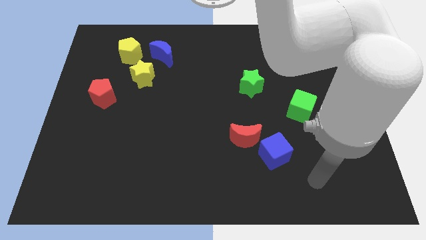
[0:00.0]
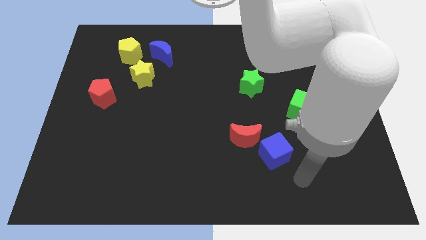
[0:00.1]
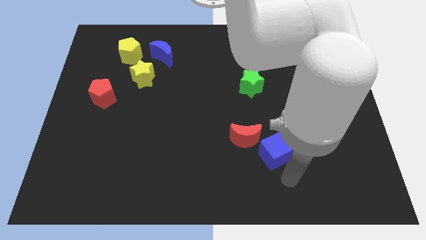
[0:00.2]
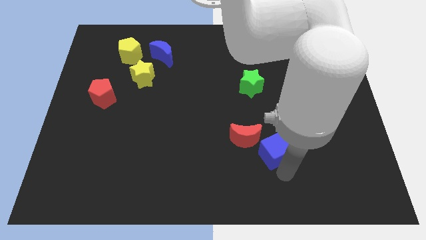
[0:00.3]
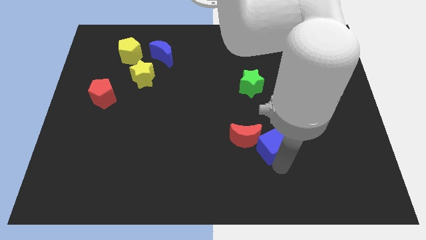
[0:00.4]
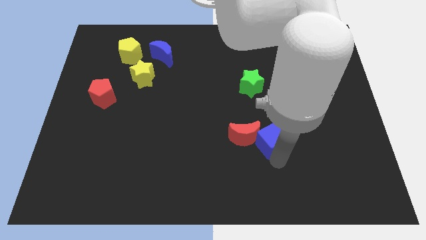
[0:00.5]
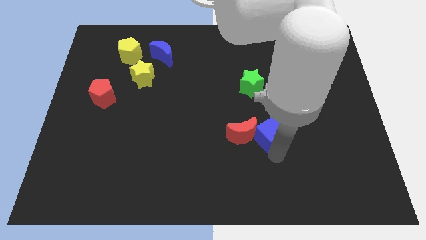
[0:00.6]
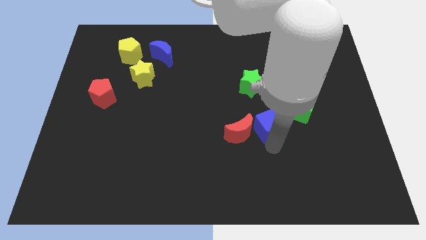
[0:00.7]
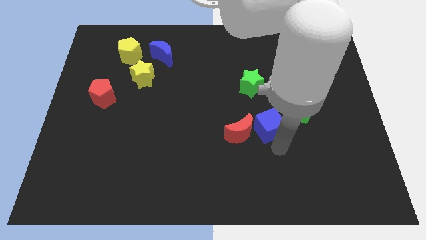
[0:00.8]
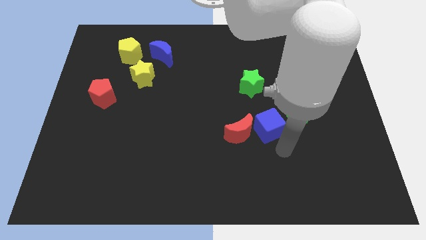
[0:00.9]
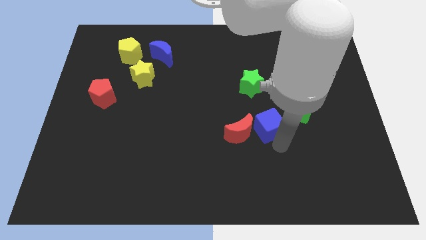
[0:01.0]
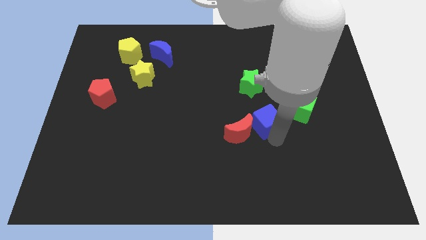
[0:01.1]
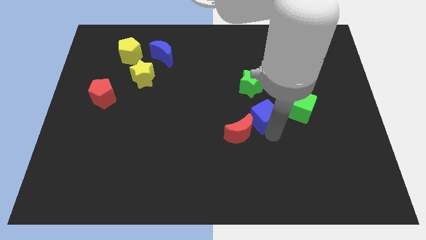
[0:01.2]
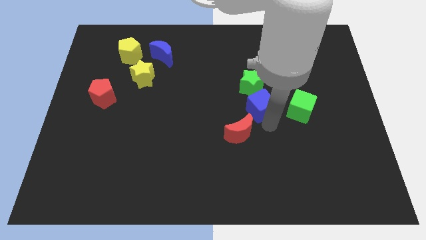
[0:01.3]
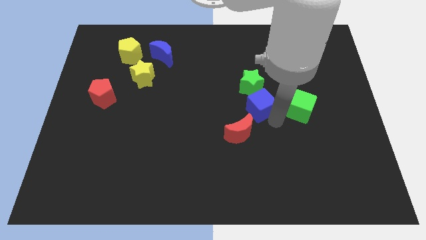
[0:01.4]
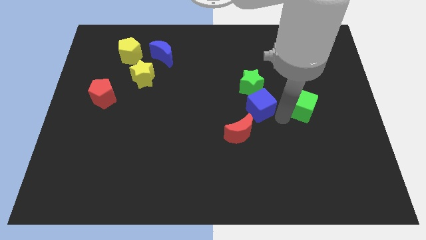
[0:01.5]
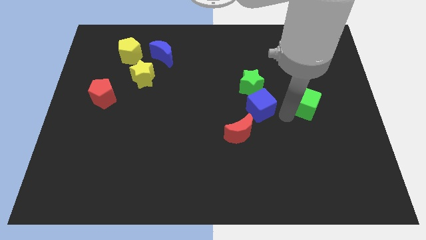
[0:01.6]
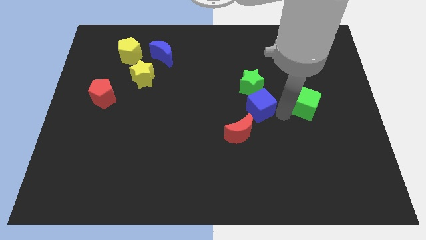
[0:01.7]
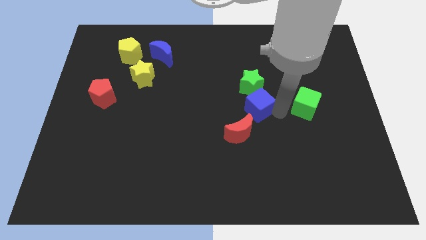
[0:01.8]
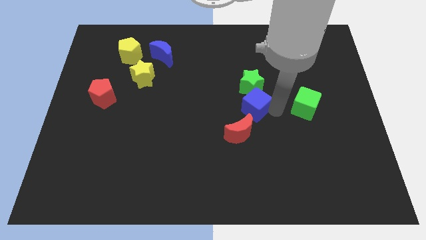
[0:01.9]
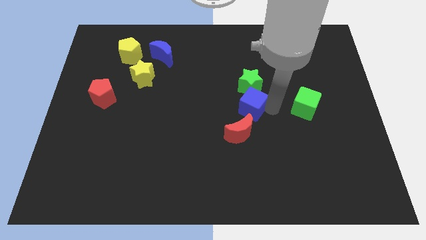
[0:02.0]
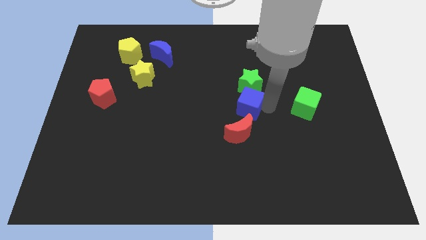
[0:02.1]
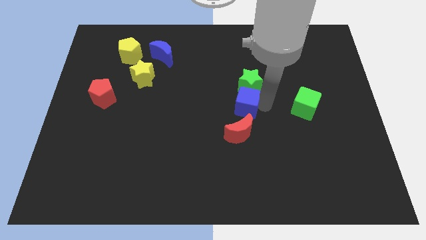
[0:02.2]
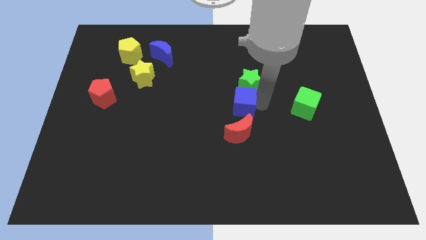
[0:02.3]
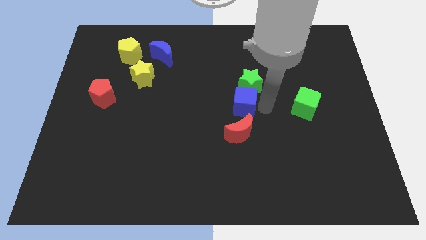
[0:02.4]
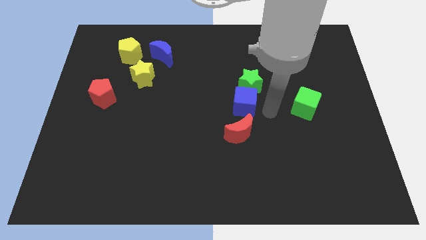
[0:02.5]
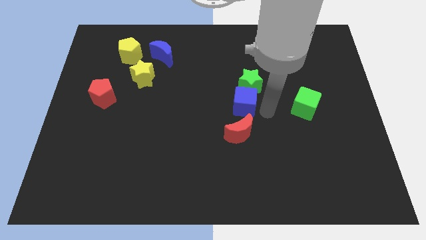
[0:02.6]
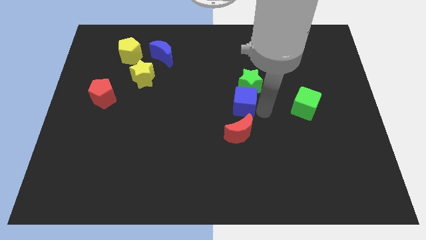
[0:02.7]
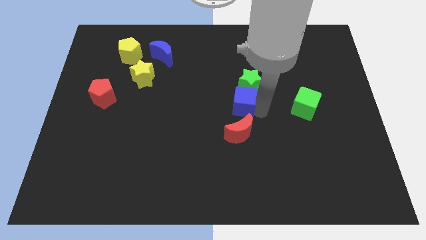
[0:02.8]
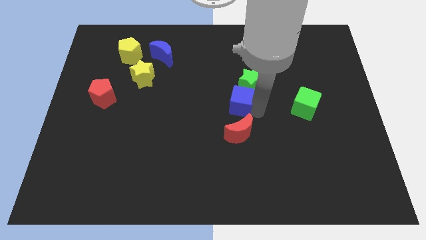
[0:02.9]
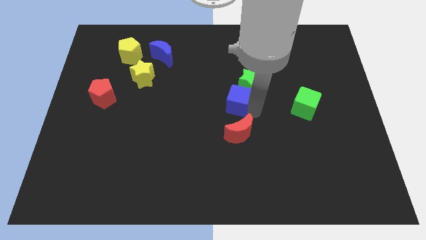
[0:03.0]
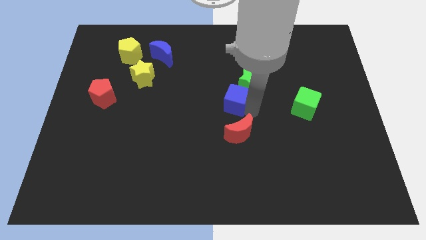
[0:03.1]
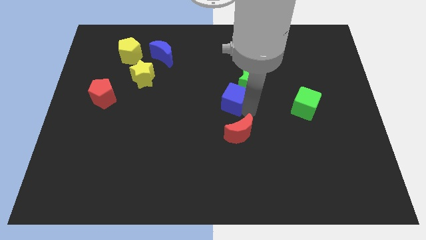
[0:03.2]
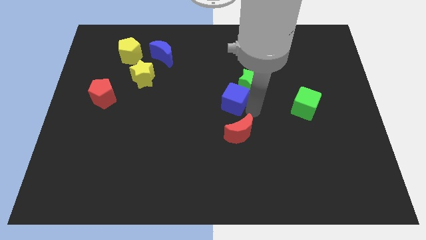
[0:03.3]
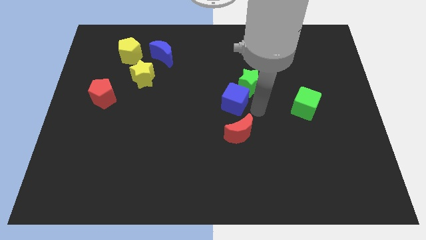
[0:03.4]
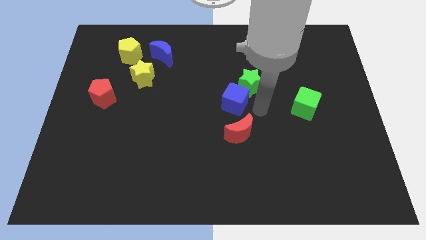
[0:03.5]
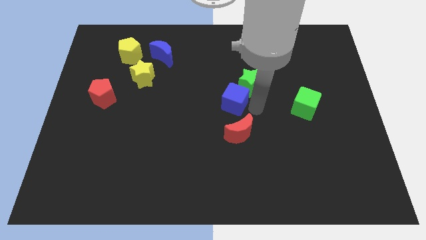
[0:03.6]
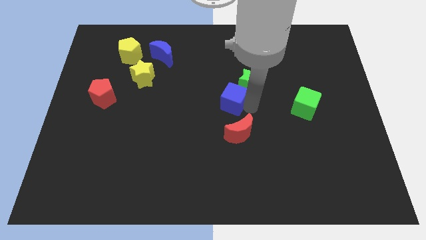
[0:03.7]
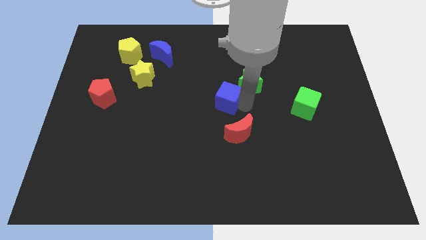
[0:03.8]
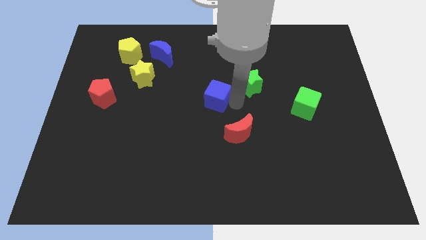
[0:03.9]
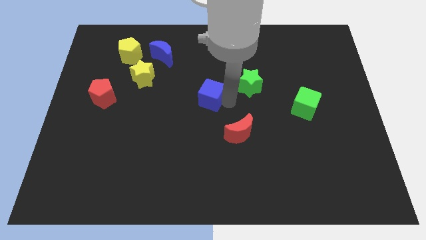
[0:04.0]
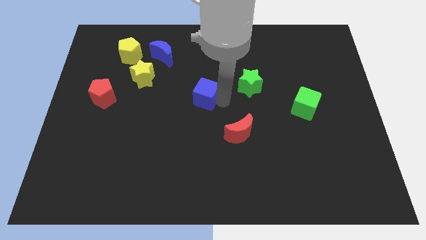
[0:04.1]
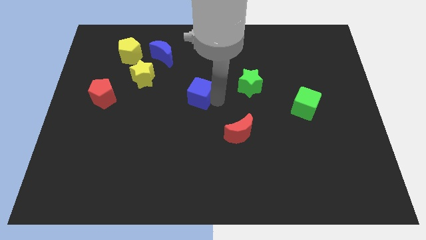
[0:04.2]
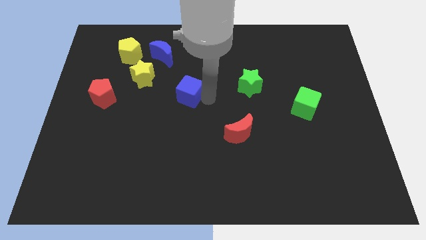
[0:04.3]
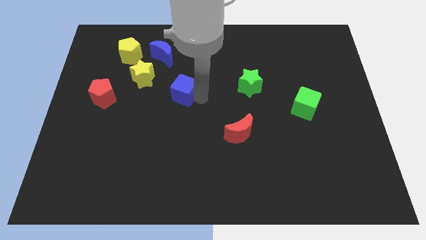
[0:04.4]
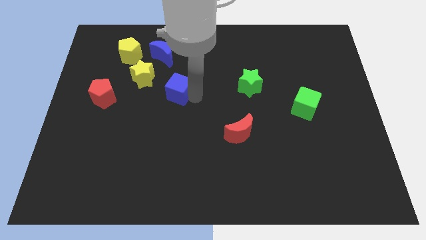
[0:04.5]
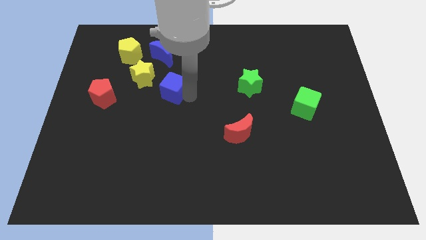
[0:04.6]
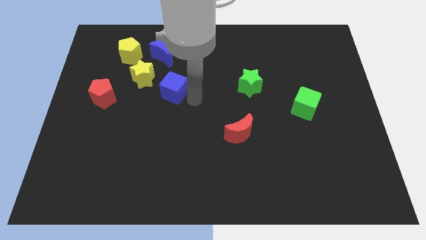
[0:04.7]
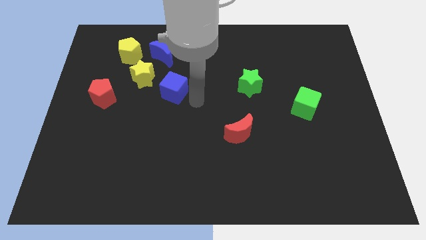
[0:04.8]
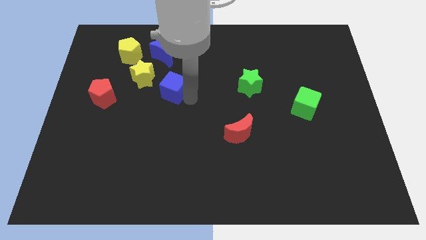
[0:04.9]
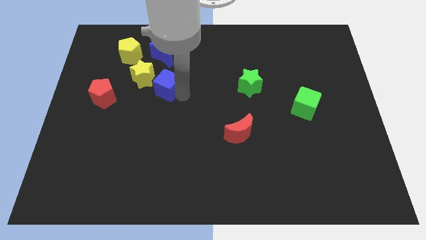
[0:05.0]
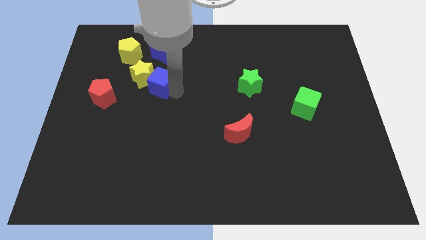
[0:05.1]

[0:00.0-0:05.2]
slide the blue cube to the yellow star

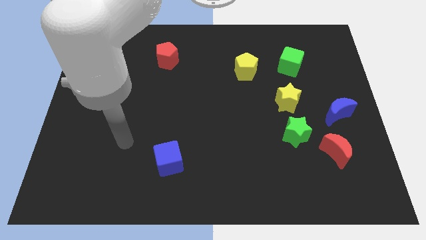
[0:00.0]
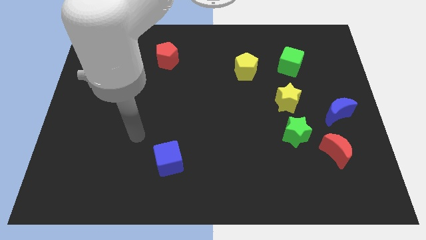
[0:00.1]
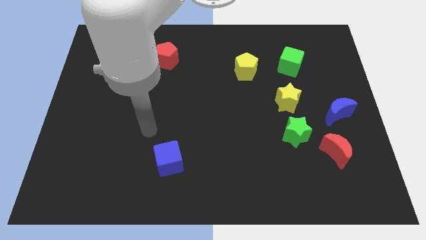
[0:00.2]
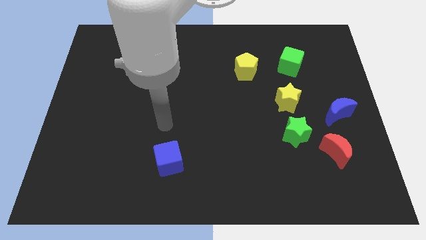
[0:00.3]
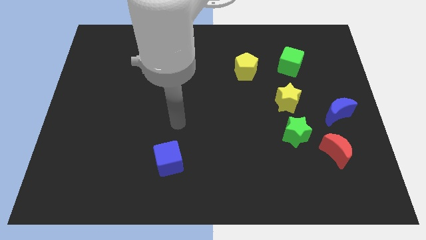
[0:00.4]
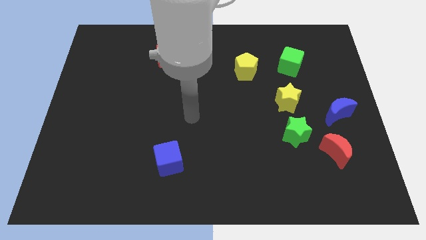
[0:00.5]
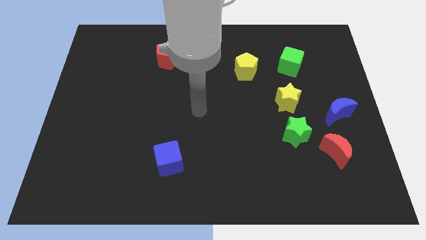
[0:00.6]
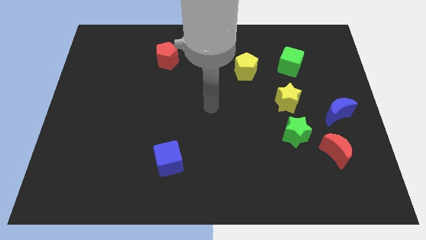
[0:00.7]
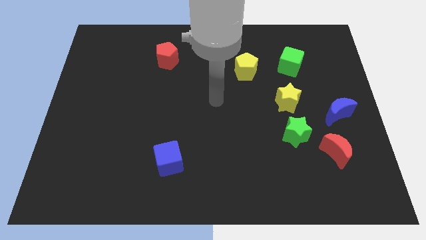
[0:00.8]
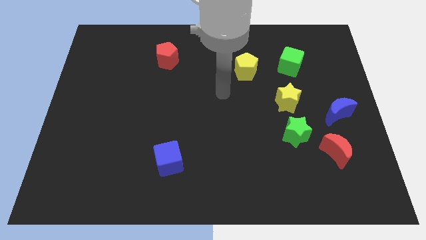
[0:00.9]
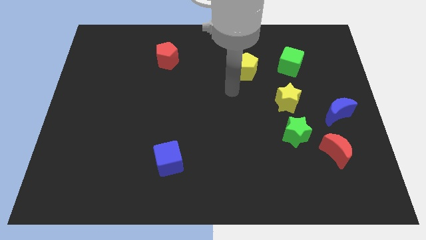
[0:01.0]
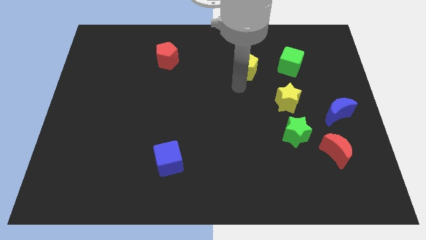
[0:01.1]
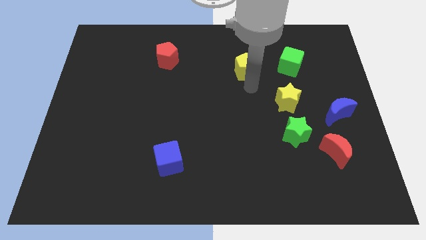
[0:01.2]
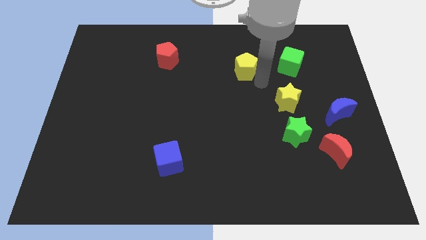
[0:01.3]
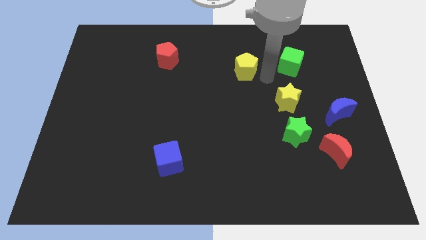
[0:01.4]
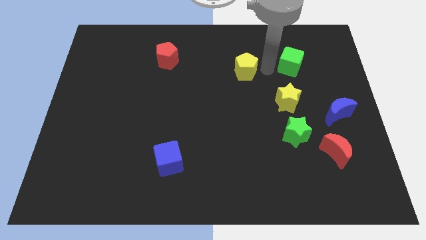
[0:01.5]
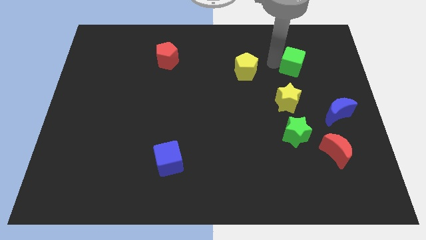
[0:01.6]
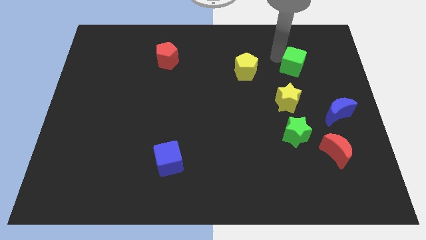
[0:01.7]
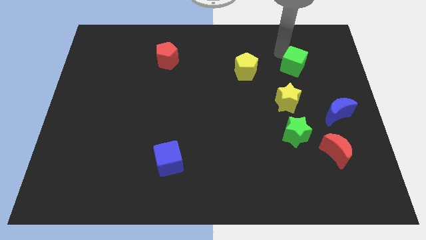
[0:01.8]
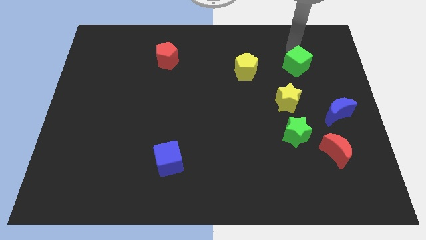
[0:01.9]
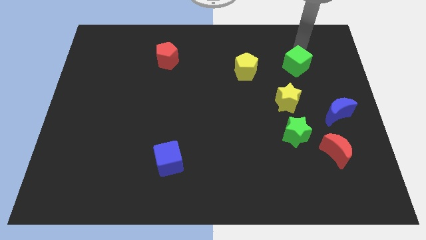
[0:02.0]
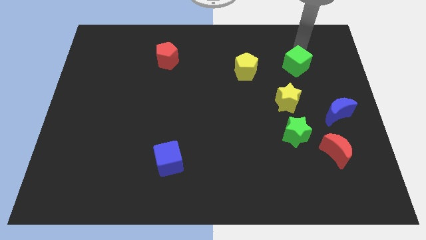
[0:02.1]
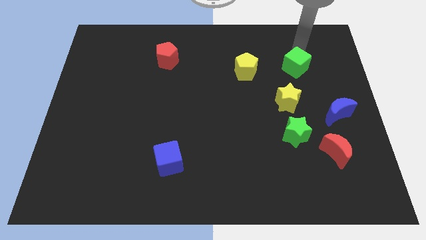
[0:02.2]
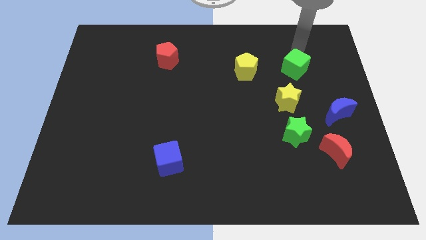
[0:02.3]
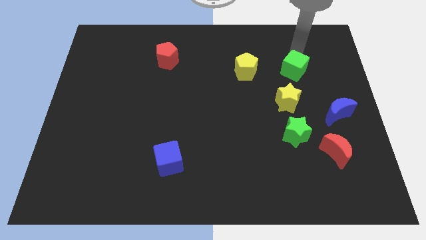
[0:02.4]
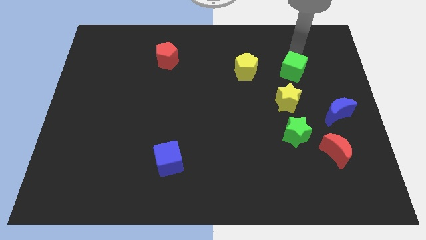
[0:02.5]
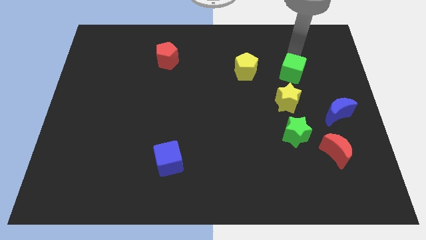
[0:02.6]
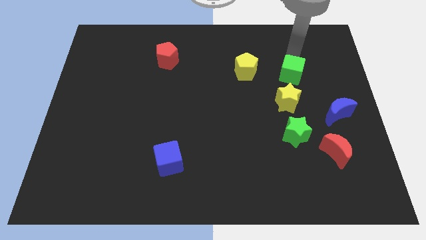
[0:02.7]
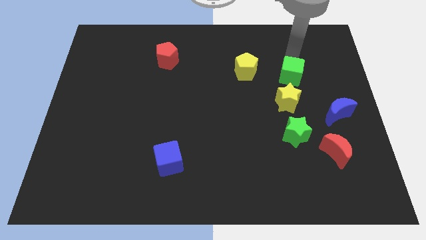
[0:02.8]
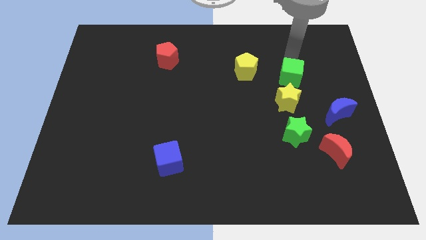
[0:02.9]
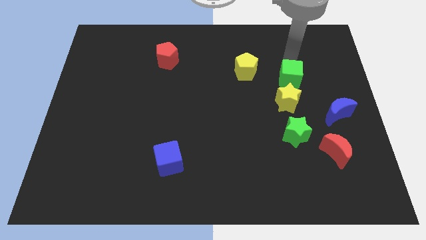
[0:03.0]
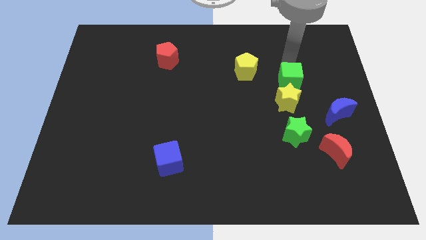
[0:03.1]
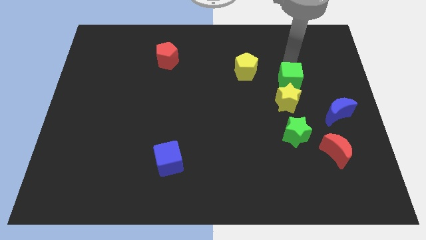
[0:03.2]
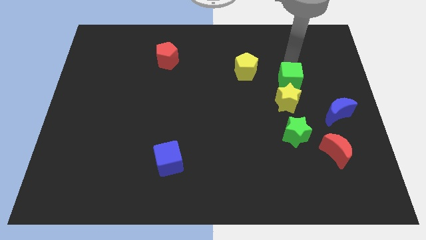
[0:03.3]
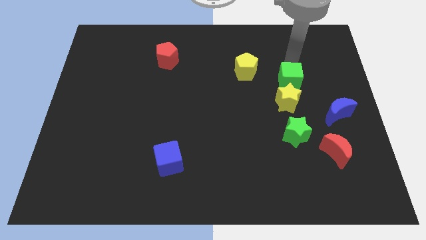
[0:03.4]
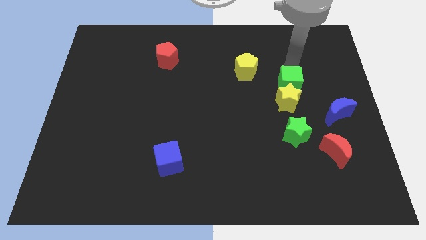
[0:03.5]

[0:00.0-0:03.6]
push the green cube to the yellow star
